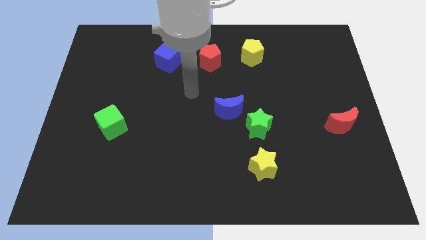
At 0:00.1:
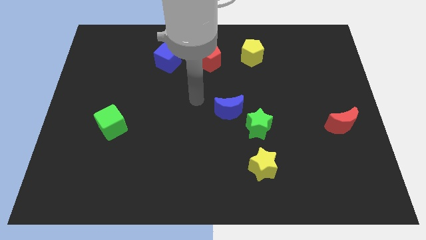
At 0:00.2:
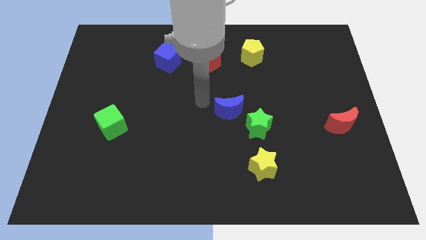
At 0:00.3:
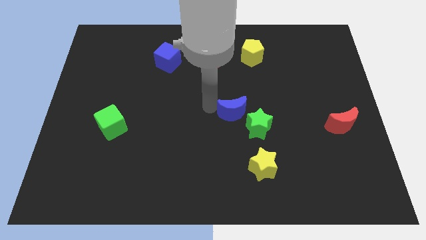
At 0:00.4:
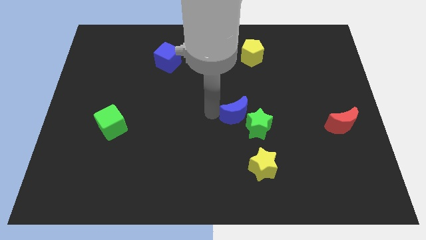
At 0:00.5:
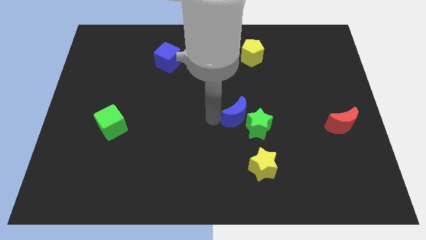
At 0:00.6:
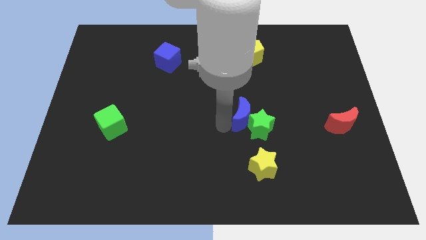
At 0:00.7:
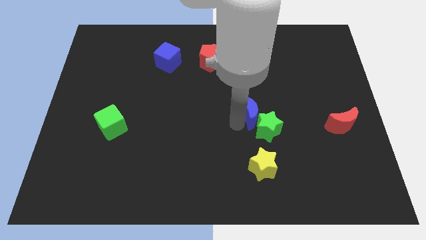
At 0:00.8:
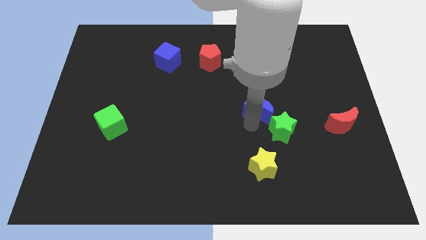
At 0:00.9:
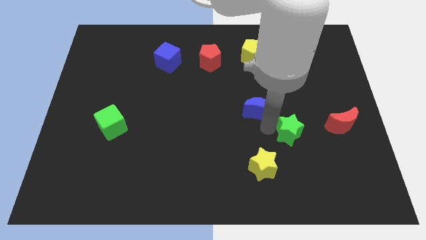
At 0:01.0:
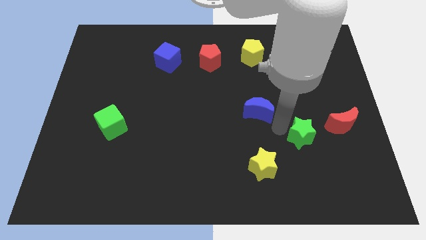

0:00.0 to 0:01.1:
pull the blue moon apart from the green star

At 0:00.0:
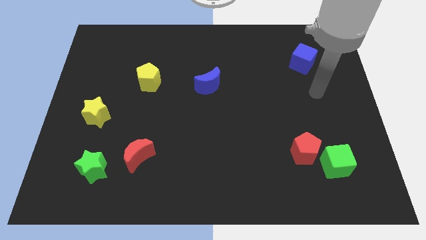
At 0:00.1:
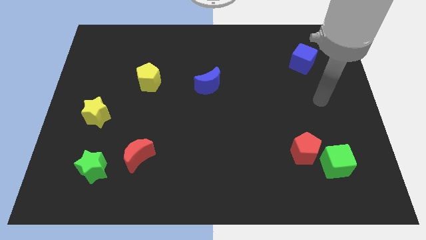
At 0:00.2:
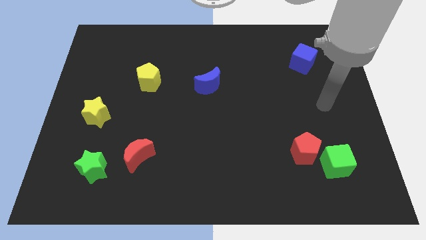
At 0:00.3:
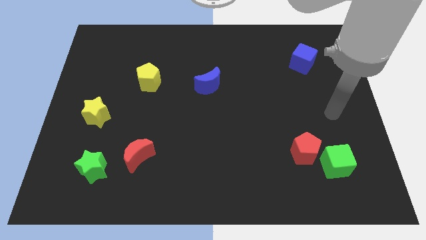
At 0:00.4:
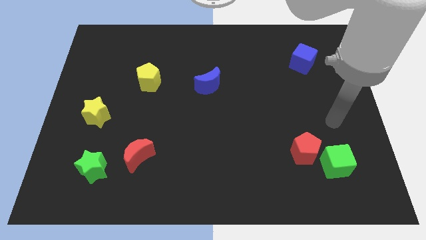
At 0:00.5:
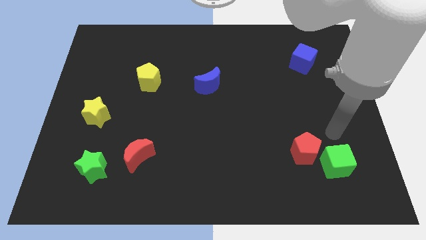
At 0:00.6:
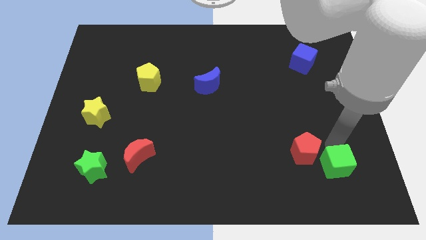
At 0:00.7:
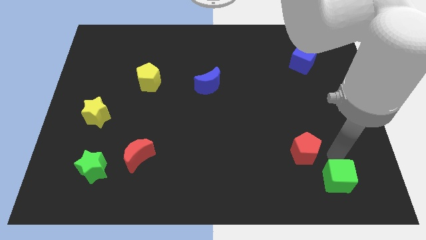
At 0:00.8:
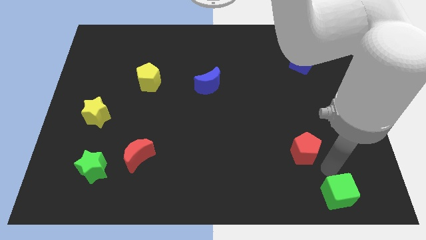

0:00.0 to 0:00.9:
pull the red pentagon apart from the green cube

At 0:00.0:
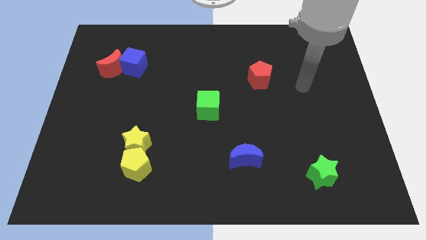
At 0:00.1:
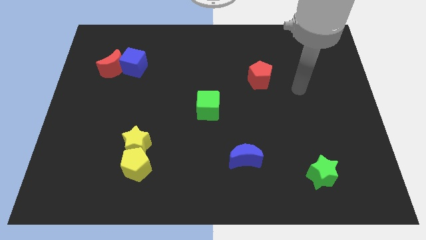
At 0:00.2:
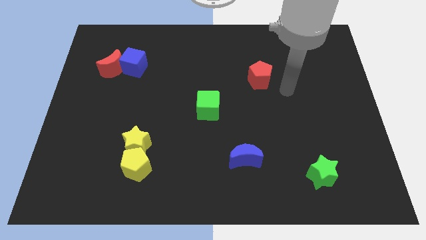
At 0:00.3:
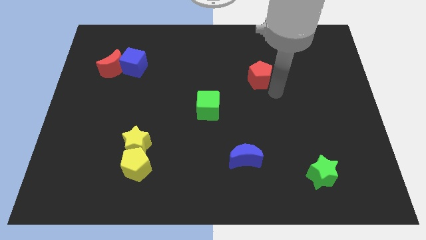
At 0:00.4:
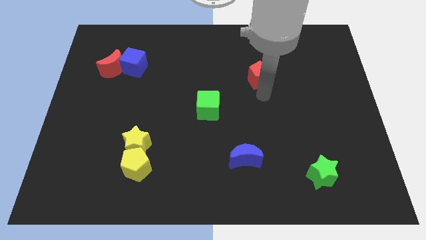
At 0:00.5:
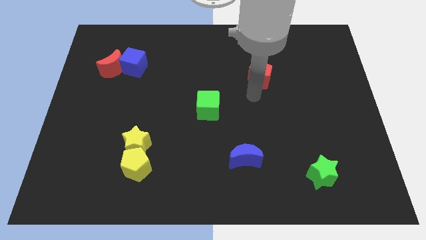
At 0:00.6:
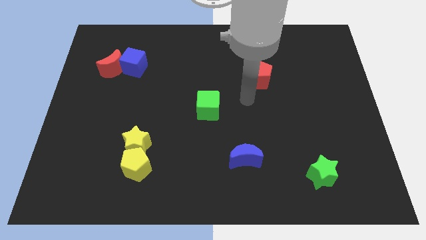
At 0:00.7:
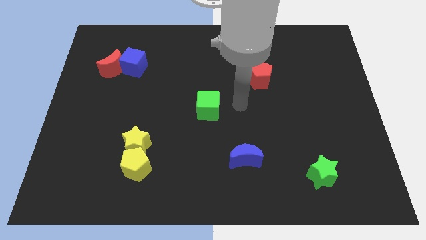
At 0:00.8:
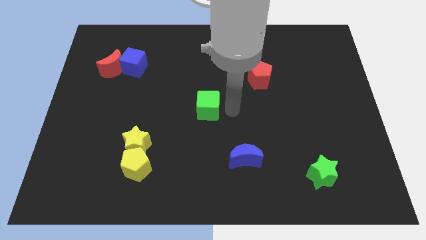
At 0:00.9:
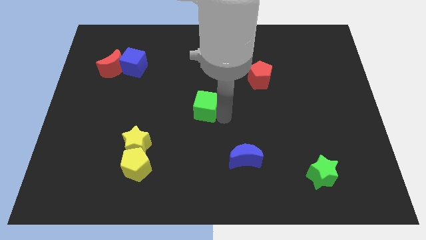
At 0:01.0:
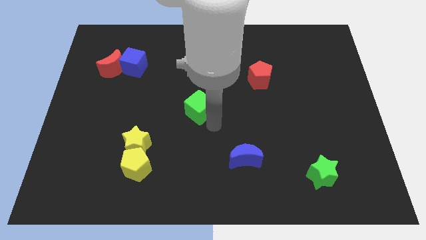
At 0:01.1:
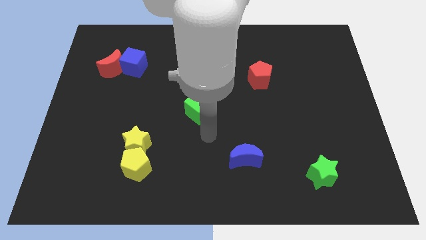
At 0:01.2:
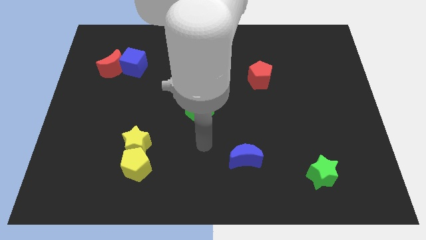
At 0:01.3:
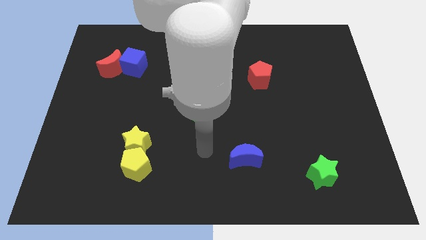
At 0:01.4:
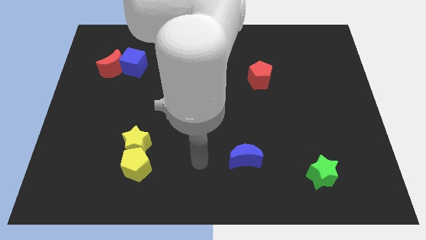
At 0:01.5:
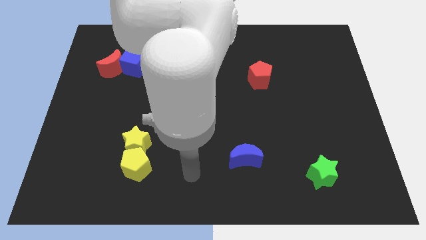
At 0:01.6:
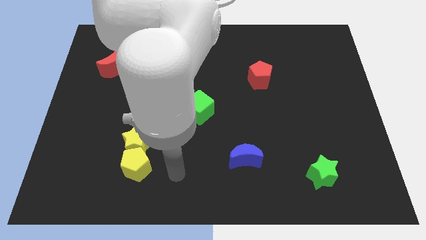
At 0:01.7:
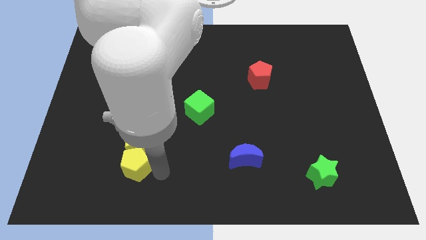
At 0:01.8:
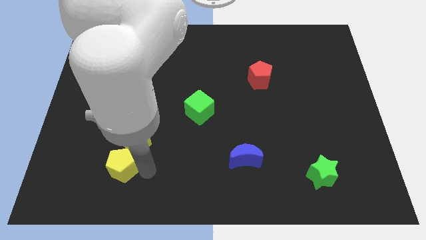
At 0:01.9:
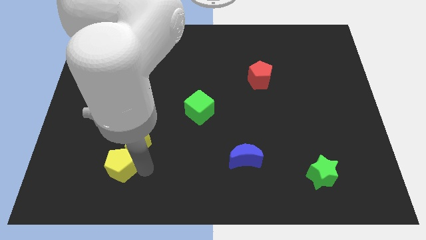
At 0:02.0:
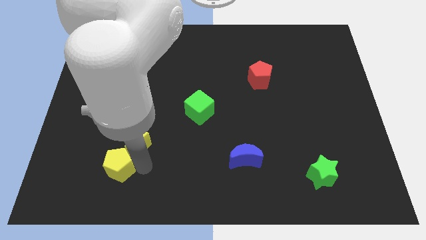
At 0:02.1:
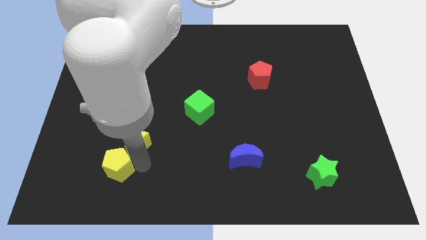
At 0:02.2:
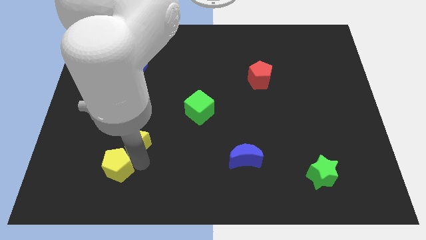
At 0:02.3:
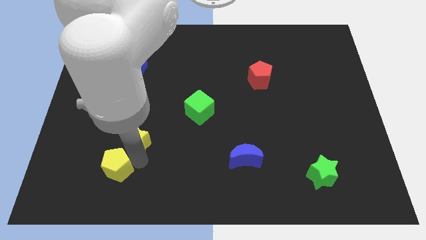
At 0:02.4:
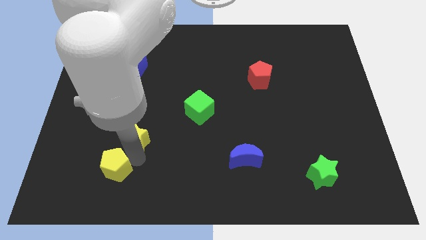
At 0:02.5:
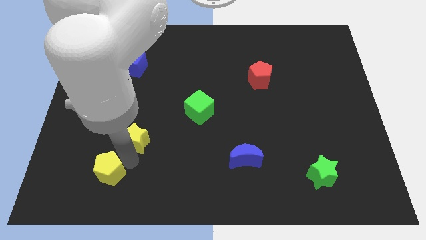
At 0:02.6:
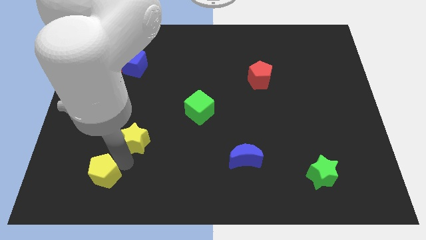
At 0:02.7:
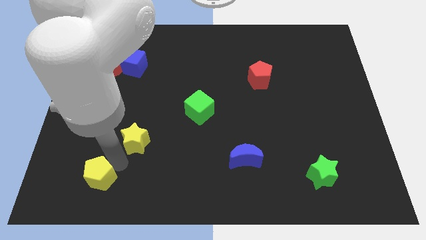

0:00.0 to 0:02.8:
separate the yellow star from the yellow pentagon

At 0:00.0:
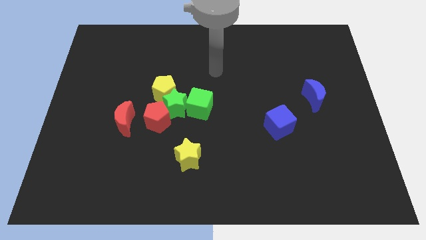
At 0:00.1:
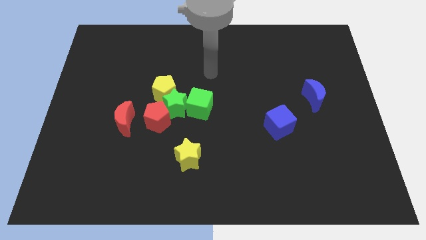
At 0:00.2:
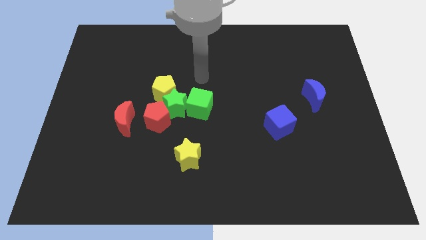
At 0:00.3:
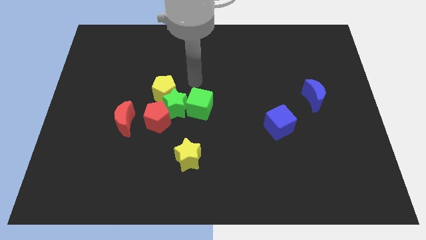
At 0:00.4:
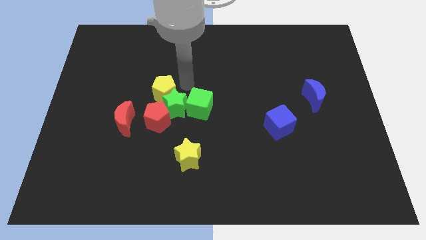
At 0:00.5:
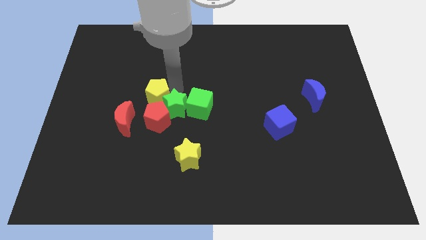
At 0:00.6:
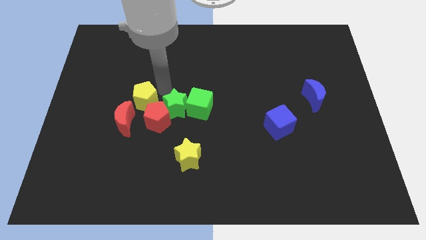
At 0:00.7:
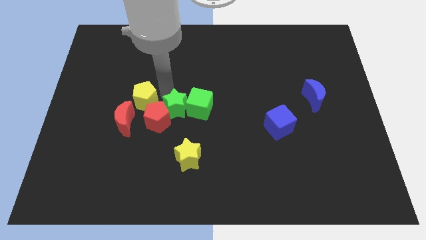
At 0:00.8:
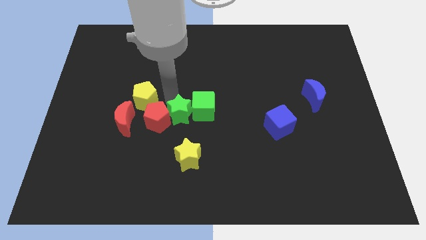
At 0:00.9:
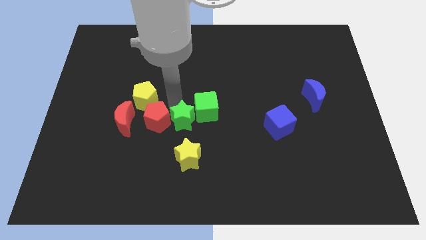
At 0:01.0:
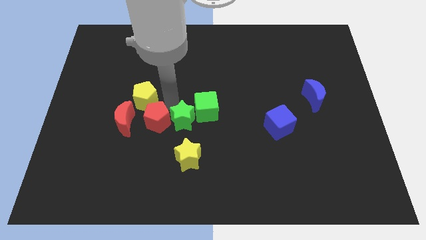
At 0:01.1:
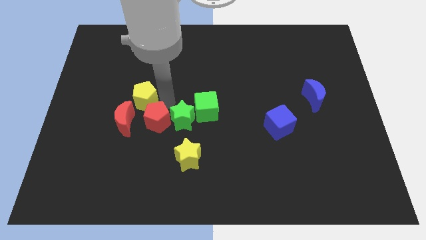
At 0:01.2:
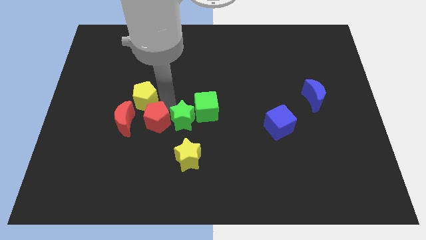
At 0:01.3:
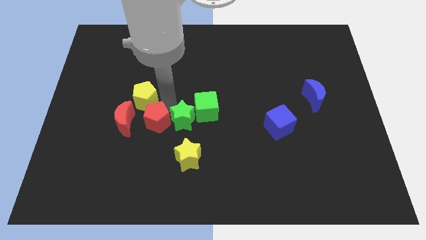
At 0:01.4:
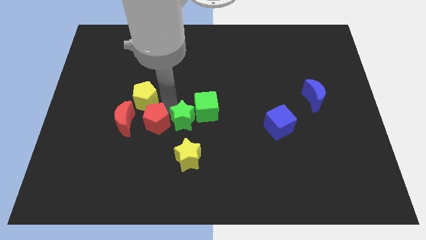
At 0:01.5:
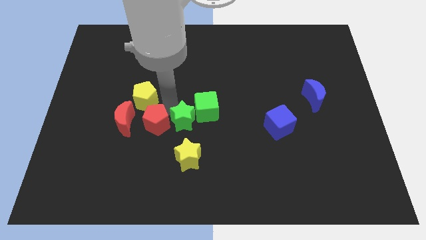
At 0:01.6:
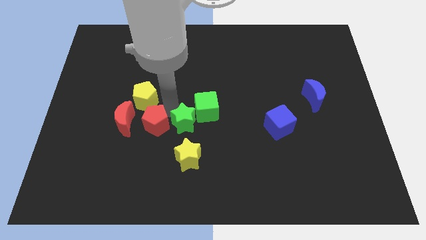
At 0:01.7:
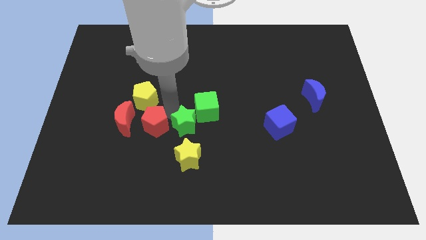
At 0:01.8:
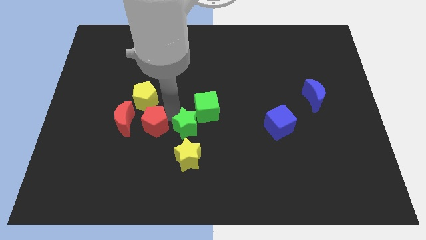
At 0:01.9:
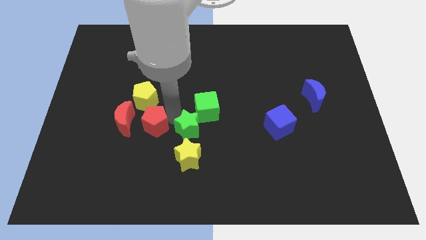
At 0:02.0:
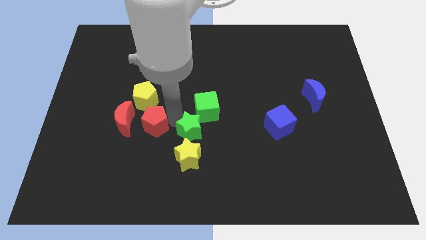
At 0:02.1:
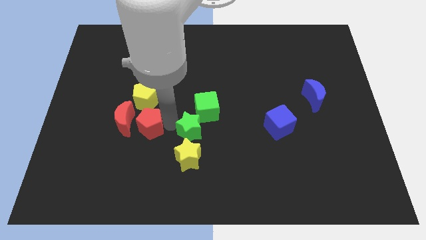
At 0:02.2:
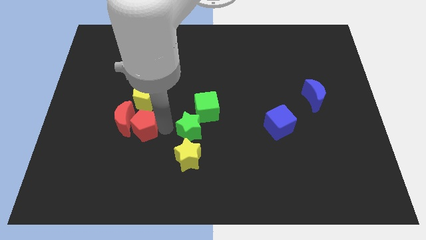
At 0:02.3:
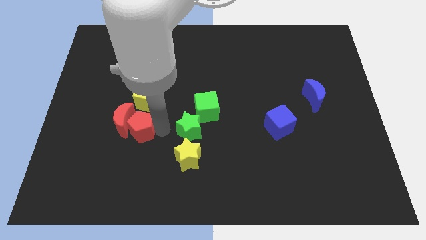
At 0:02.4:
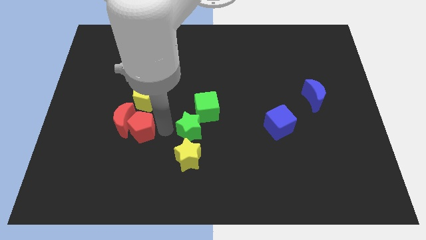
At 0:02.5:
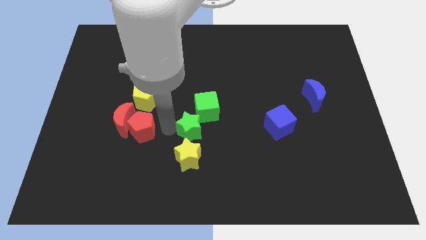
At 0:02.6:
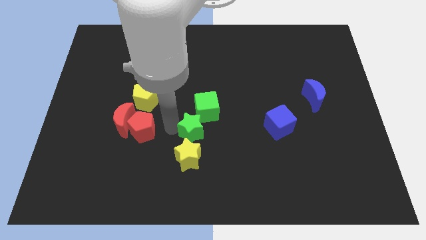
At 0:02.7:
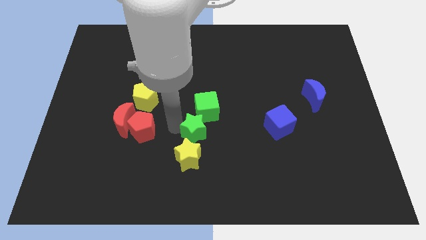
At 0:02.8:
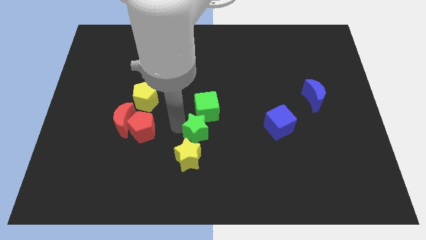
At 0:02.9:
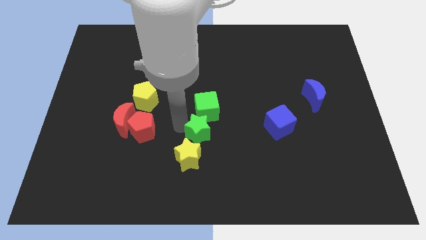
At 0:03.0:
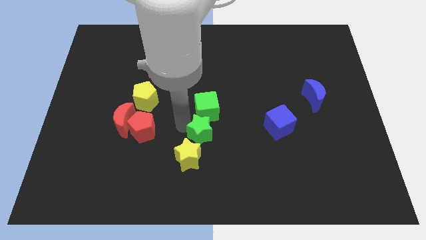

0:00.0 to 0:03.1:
pull the green star apart from the green cube, yellow pentagon, and red pentagon

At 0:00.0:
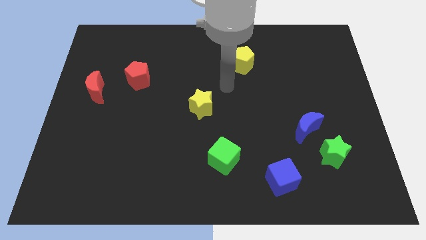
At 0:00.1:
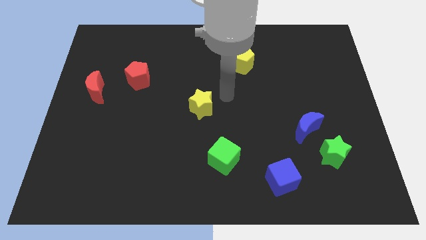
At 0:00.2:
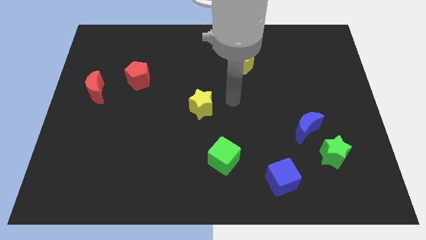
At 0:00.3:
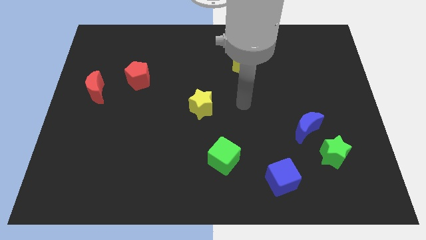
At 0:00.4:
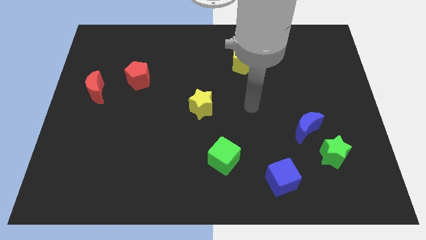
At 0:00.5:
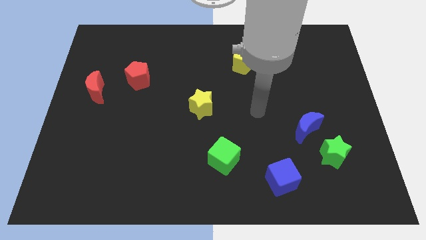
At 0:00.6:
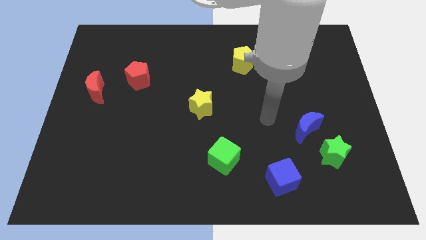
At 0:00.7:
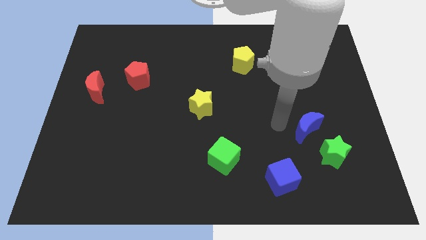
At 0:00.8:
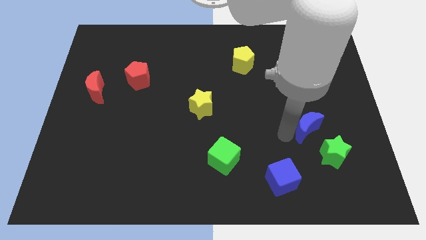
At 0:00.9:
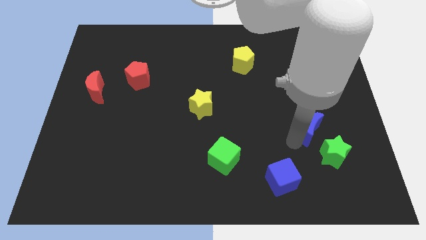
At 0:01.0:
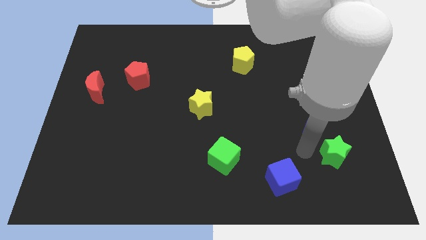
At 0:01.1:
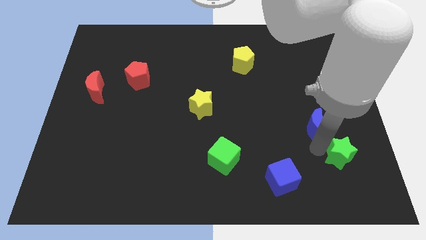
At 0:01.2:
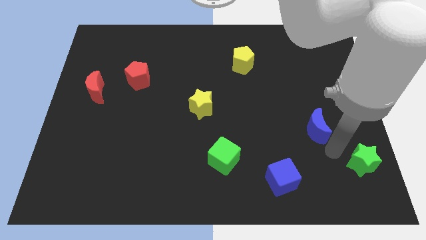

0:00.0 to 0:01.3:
separate the blue moon from the green star

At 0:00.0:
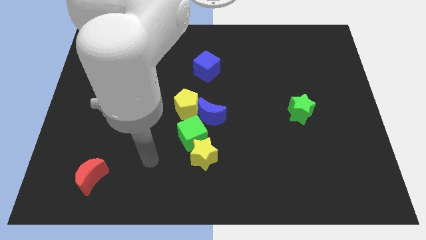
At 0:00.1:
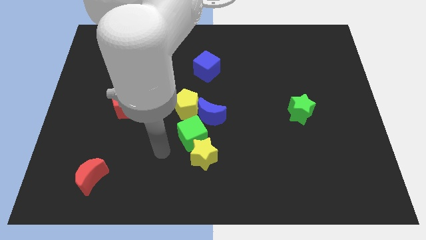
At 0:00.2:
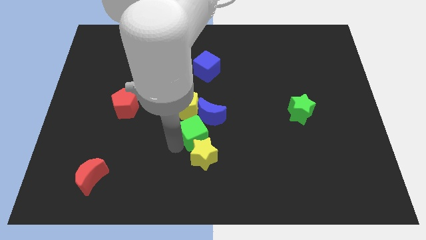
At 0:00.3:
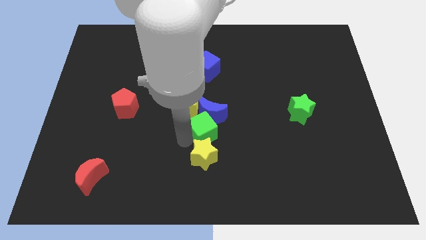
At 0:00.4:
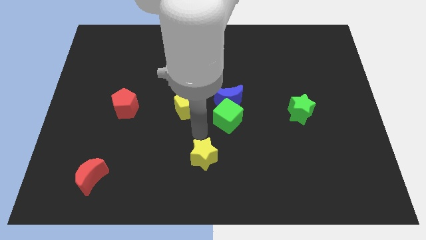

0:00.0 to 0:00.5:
separate the yellow star from the green cube
